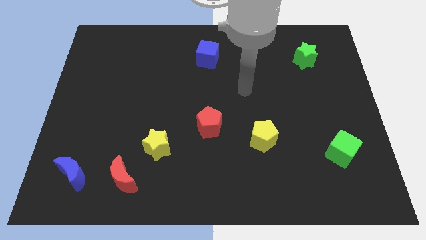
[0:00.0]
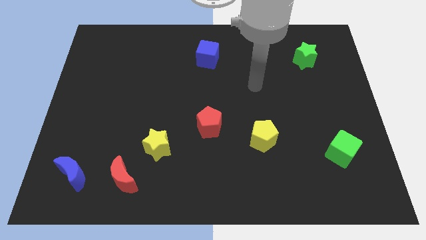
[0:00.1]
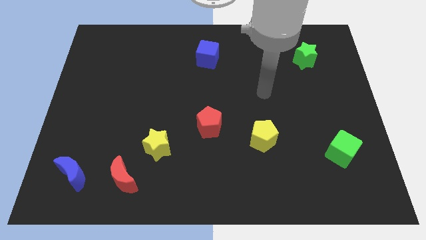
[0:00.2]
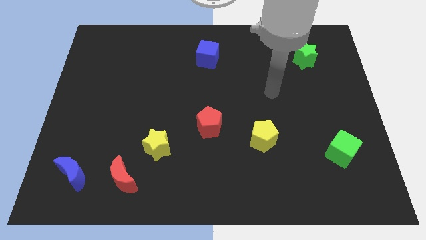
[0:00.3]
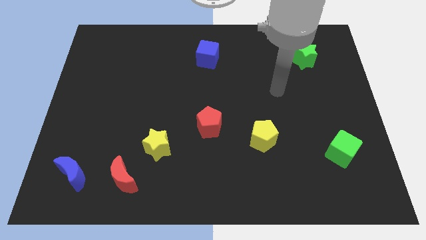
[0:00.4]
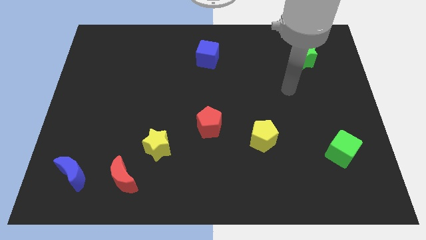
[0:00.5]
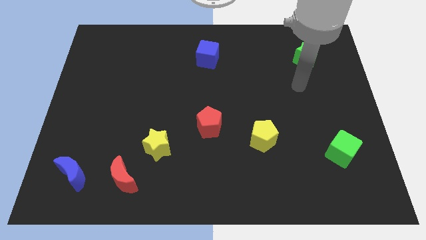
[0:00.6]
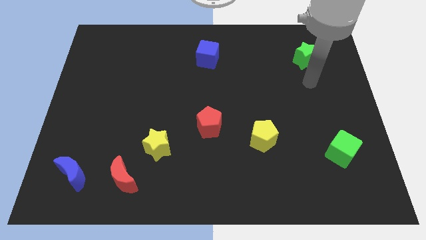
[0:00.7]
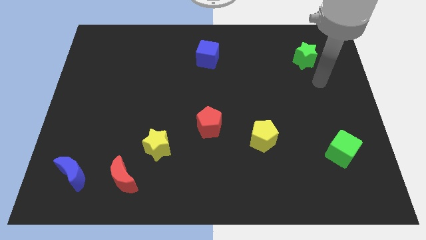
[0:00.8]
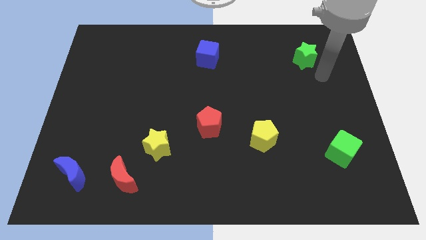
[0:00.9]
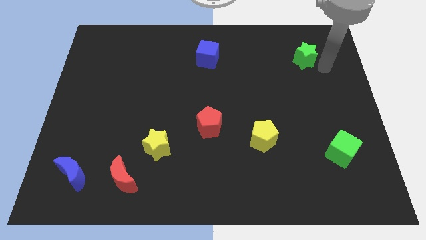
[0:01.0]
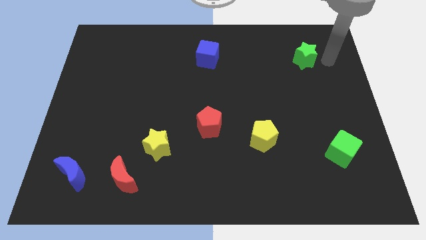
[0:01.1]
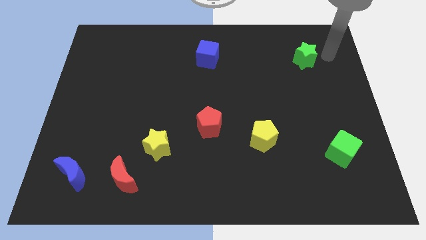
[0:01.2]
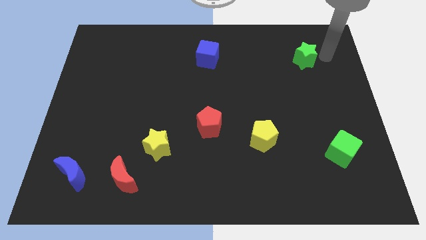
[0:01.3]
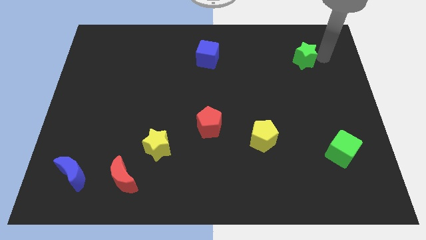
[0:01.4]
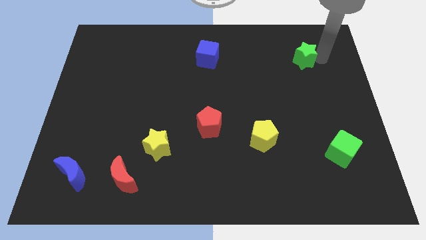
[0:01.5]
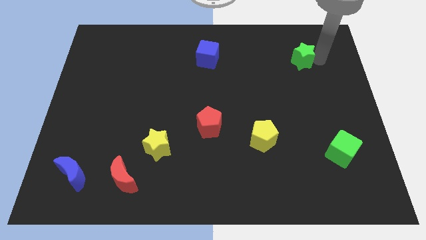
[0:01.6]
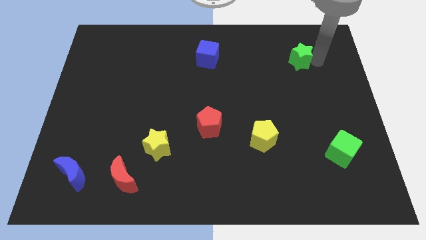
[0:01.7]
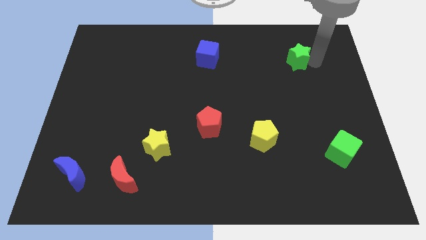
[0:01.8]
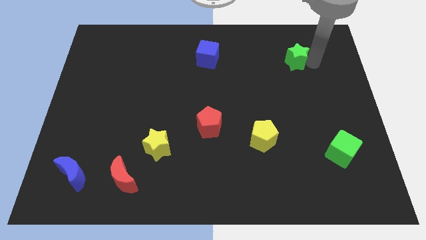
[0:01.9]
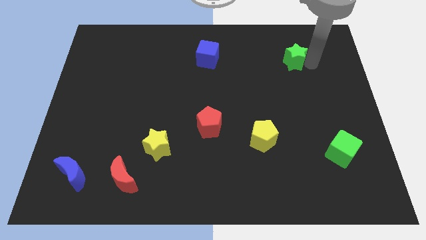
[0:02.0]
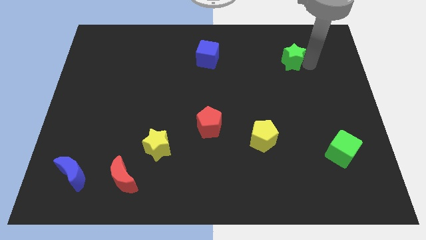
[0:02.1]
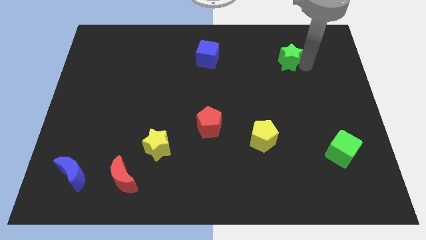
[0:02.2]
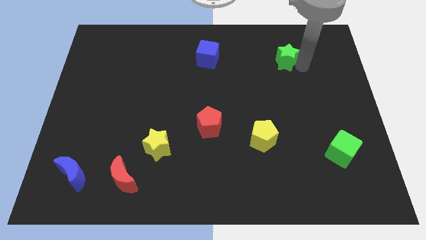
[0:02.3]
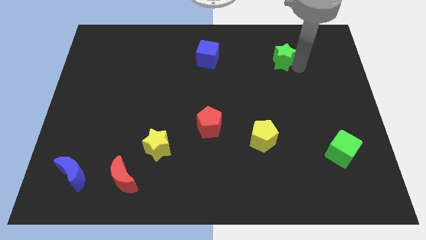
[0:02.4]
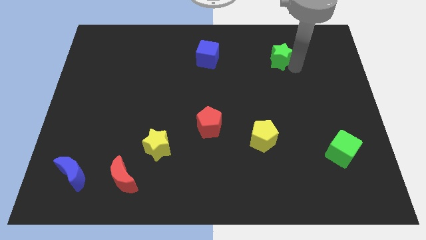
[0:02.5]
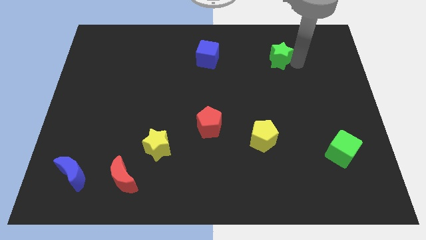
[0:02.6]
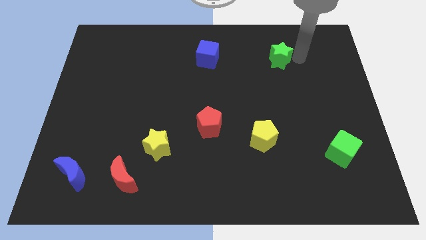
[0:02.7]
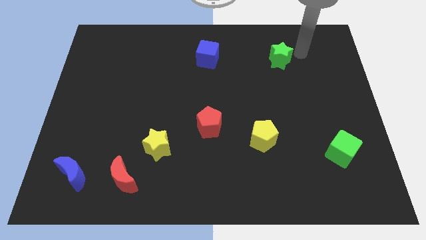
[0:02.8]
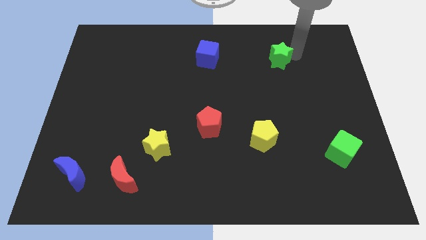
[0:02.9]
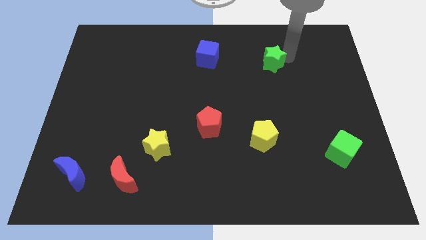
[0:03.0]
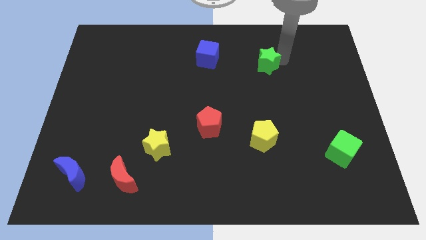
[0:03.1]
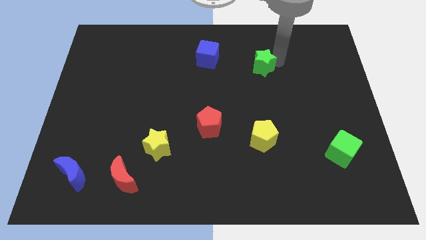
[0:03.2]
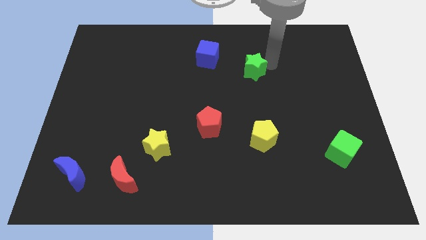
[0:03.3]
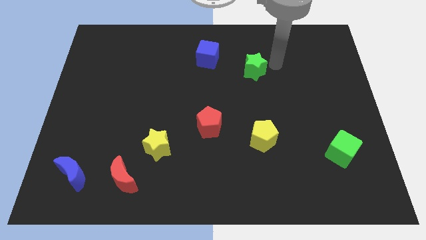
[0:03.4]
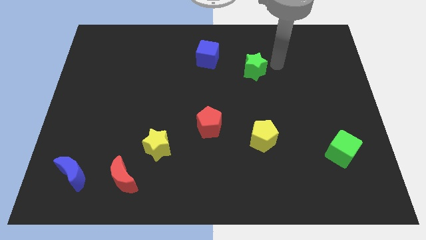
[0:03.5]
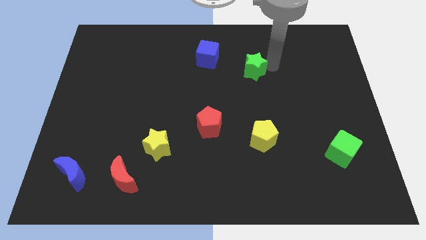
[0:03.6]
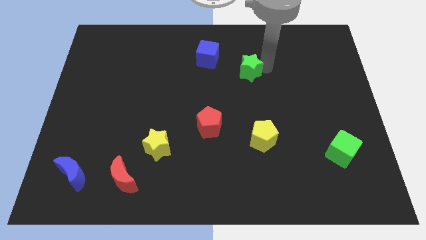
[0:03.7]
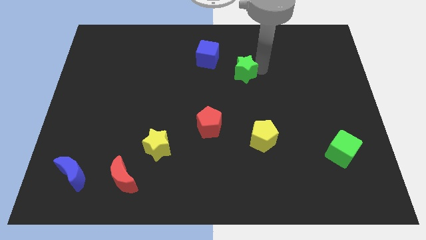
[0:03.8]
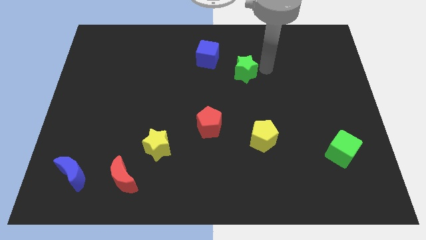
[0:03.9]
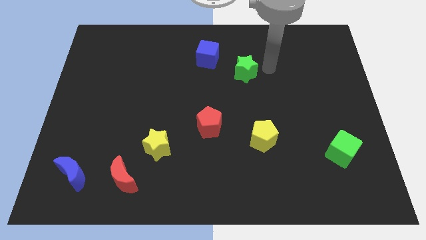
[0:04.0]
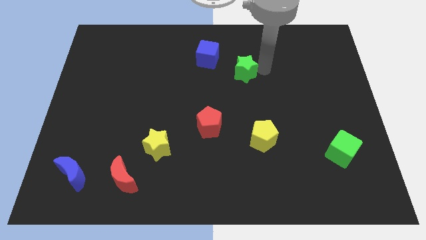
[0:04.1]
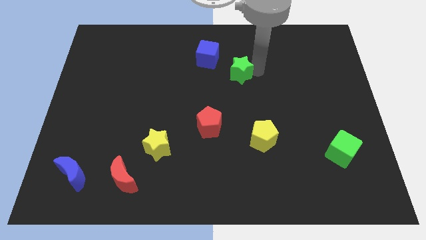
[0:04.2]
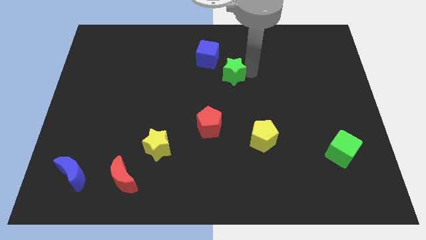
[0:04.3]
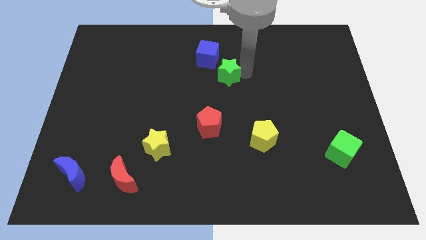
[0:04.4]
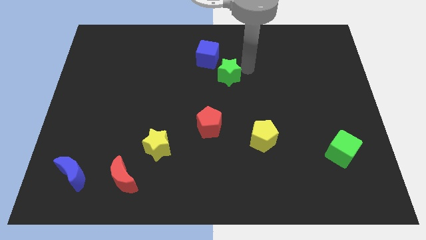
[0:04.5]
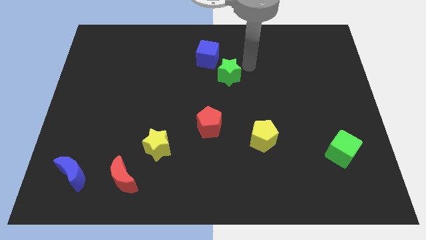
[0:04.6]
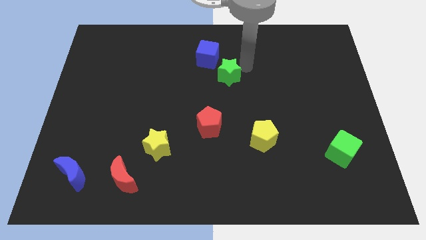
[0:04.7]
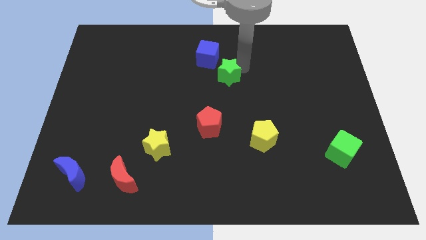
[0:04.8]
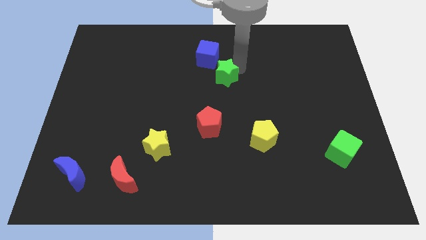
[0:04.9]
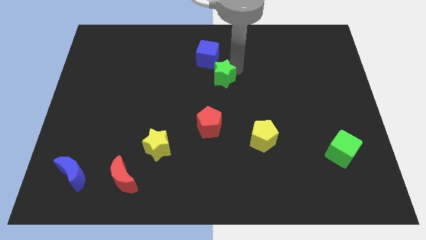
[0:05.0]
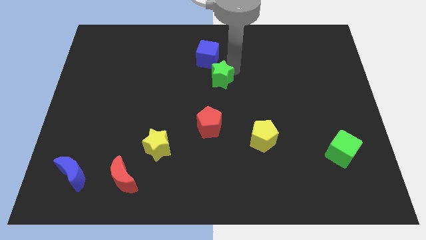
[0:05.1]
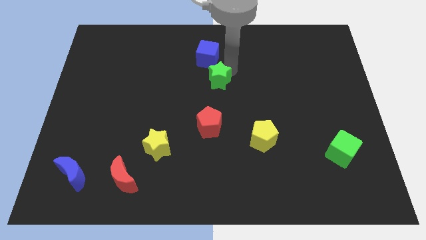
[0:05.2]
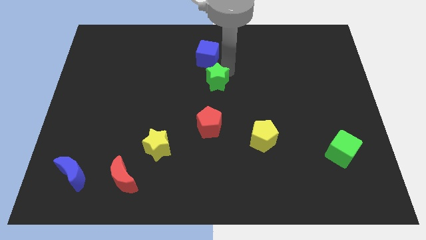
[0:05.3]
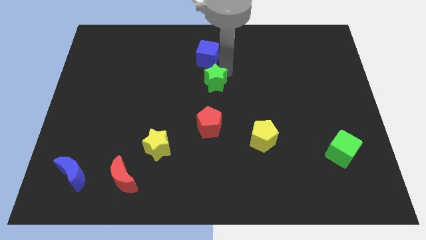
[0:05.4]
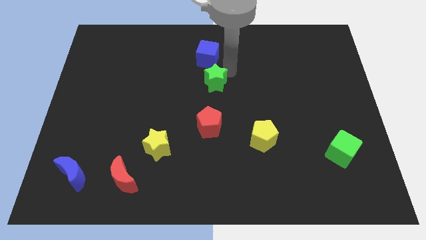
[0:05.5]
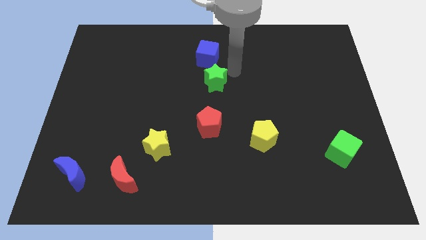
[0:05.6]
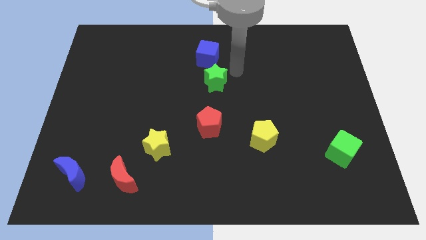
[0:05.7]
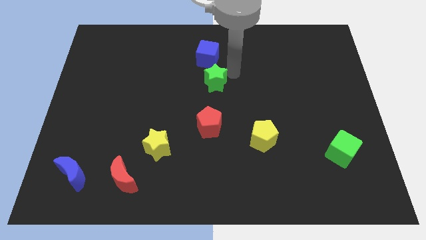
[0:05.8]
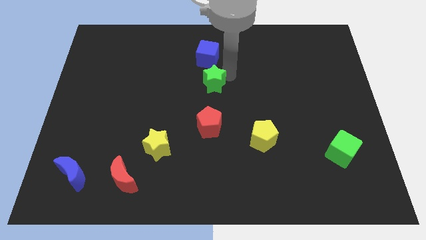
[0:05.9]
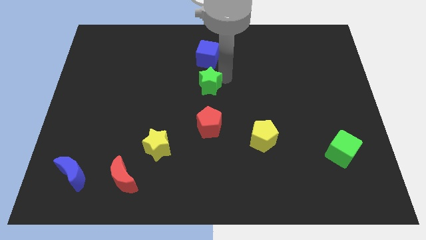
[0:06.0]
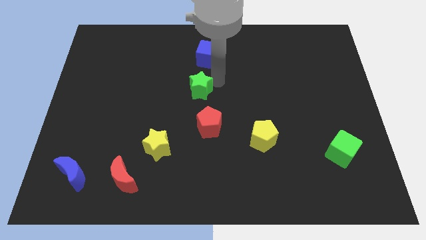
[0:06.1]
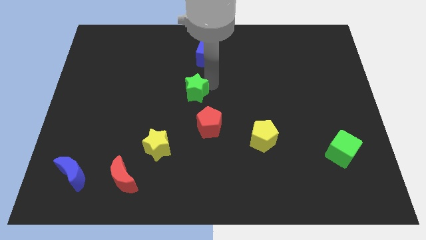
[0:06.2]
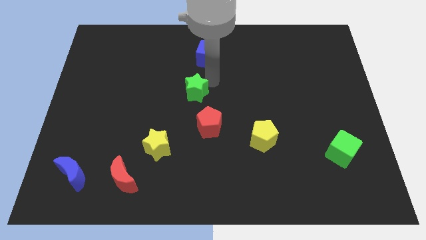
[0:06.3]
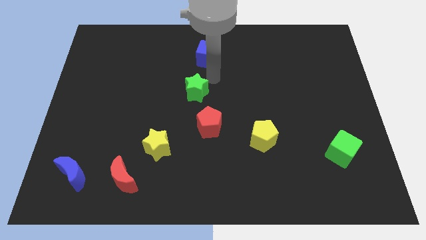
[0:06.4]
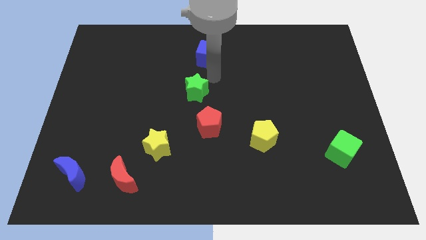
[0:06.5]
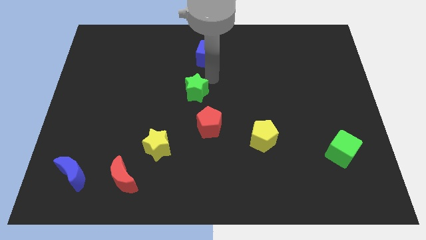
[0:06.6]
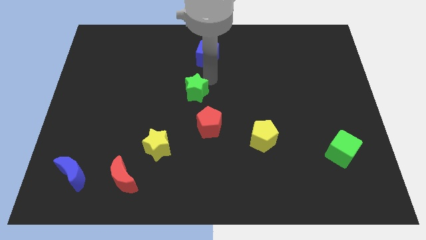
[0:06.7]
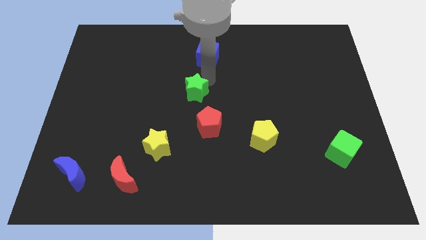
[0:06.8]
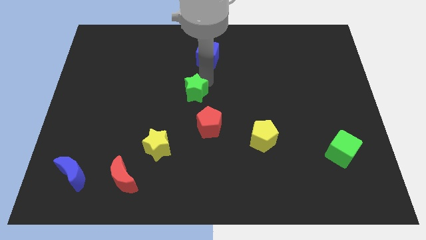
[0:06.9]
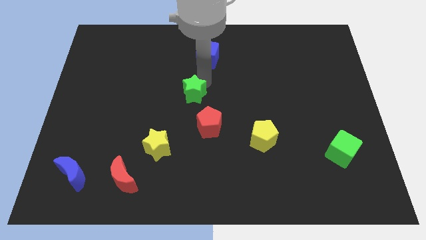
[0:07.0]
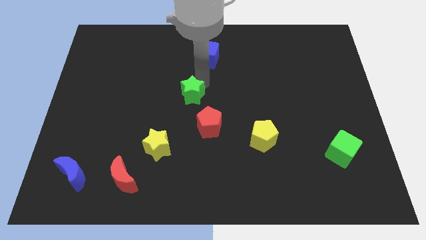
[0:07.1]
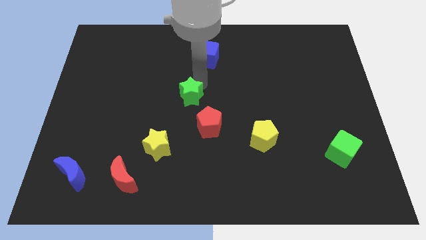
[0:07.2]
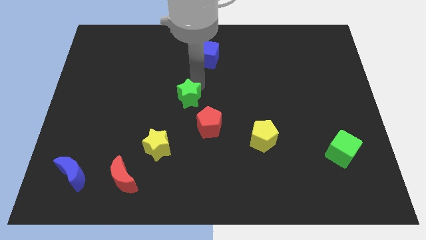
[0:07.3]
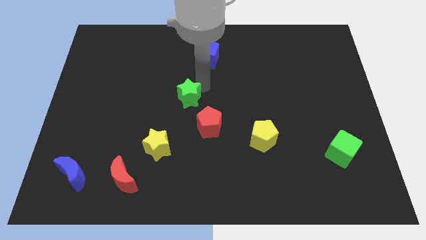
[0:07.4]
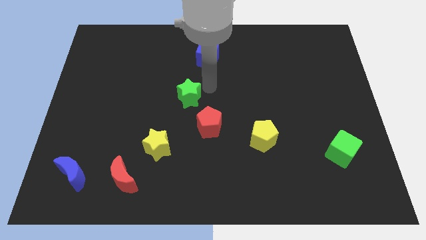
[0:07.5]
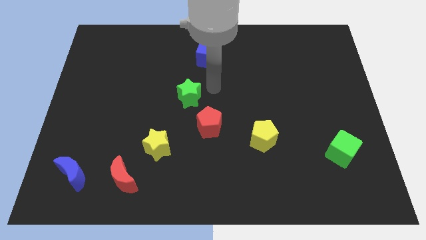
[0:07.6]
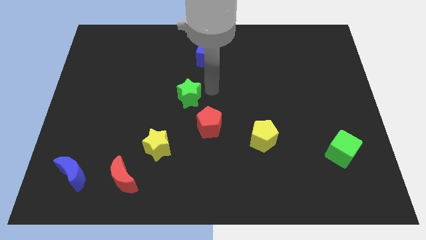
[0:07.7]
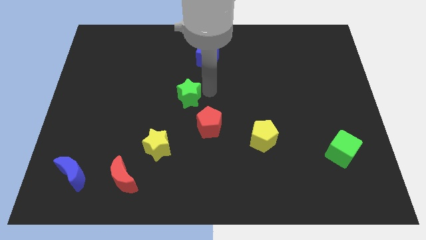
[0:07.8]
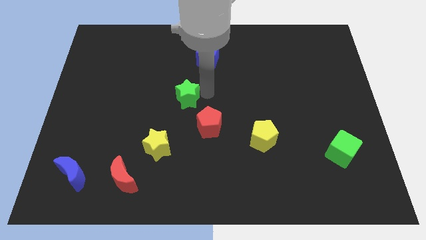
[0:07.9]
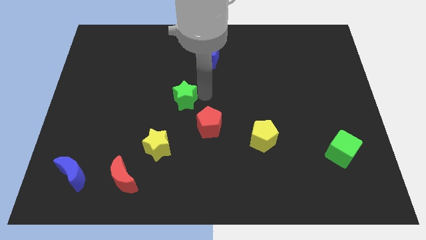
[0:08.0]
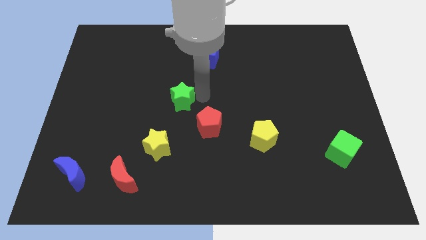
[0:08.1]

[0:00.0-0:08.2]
push the green star above the yellow star
